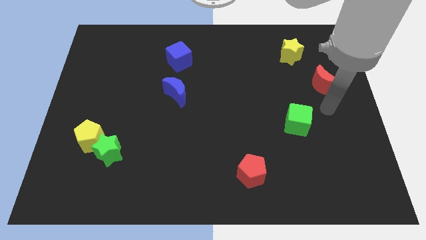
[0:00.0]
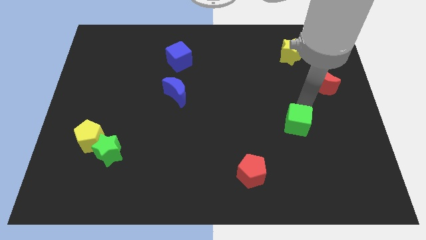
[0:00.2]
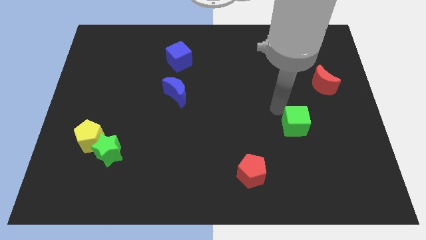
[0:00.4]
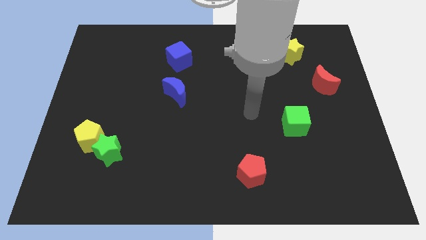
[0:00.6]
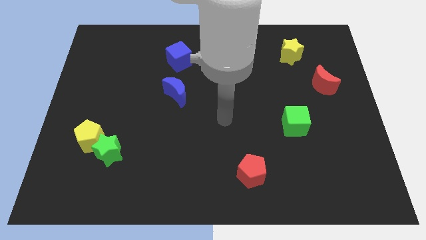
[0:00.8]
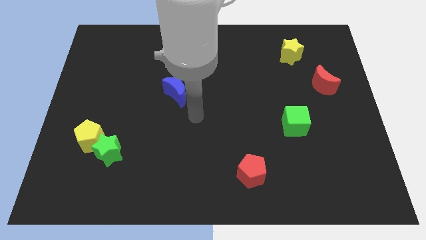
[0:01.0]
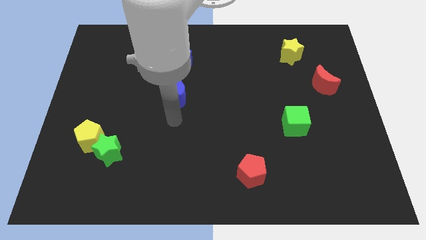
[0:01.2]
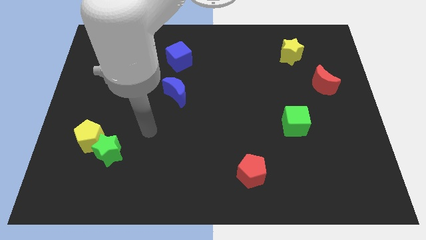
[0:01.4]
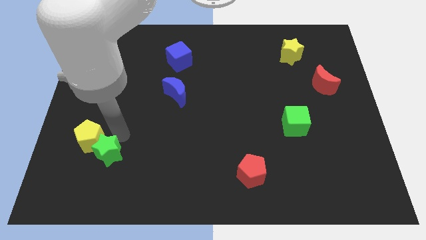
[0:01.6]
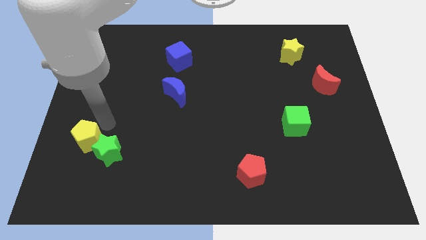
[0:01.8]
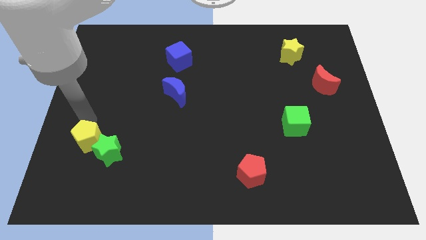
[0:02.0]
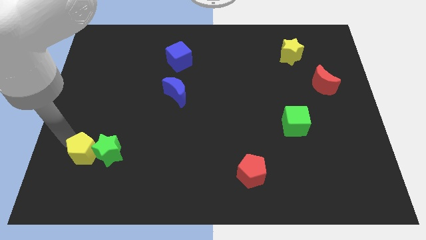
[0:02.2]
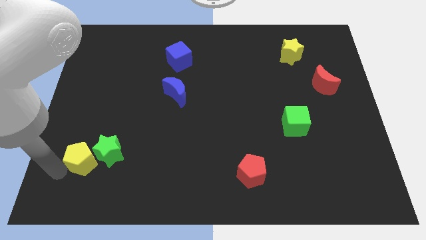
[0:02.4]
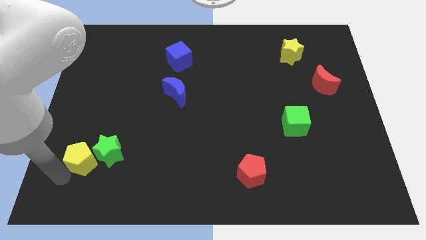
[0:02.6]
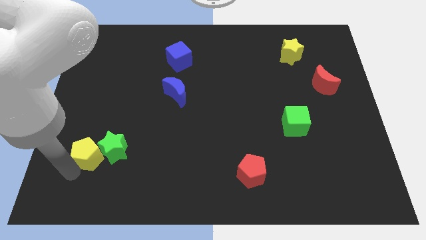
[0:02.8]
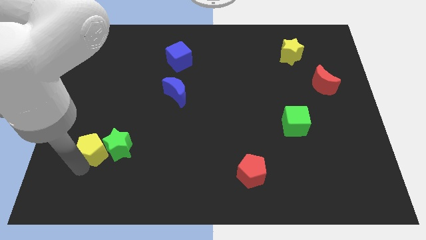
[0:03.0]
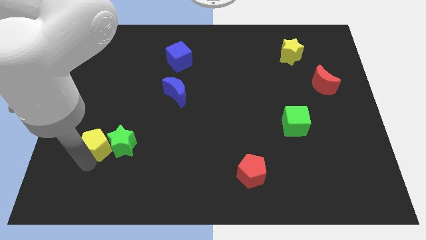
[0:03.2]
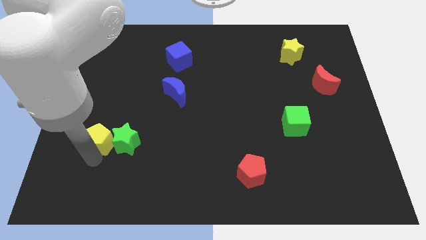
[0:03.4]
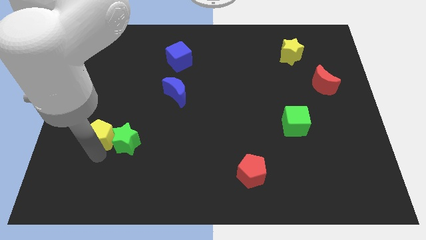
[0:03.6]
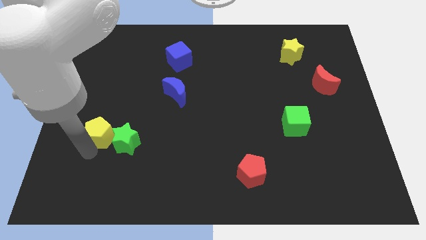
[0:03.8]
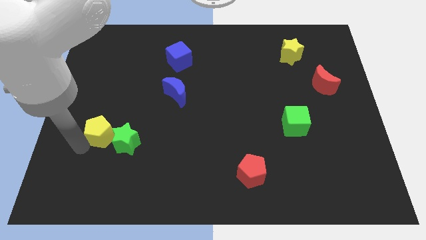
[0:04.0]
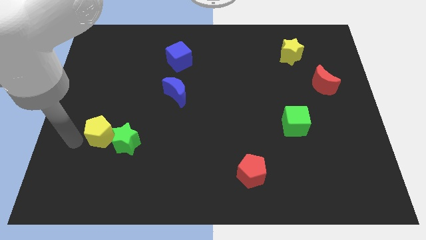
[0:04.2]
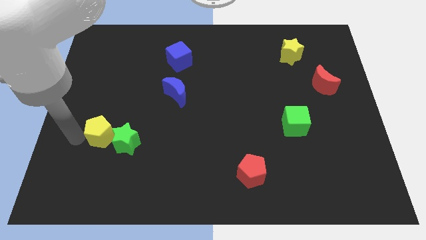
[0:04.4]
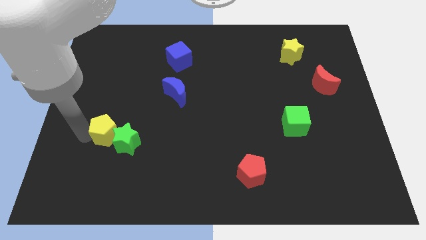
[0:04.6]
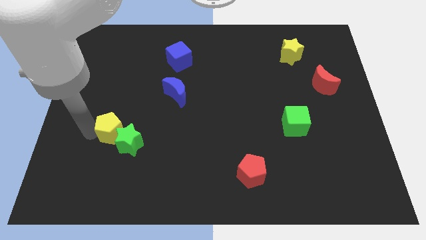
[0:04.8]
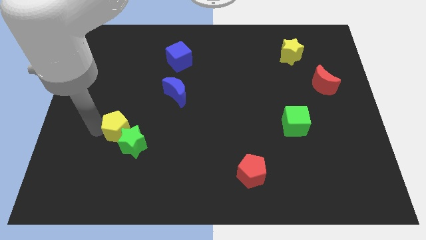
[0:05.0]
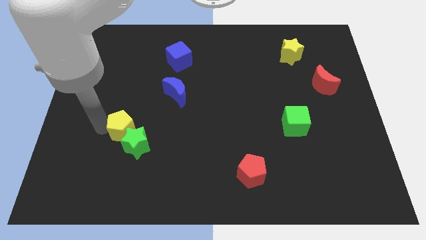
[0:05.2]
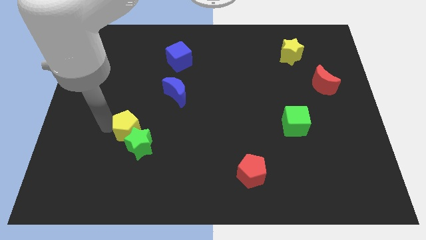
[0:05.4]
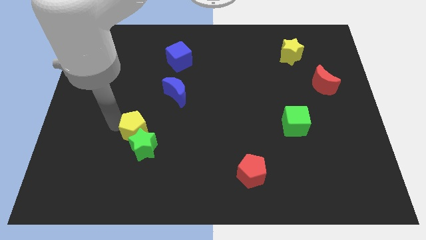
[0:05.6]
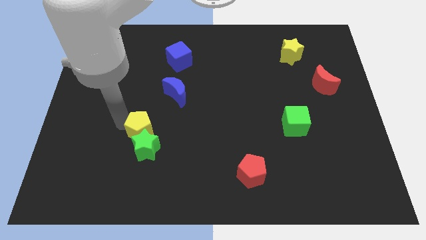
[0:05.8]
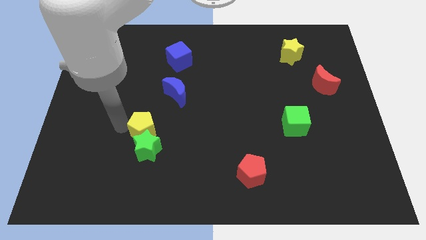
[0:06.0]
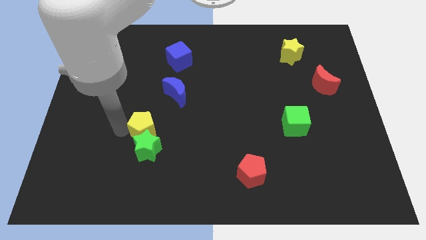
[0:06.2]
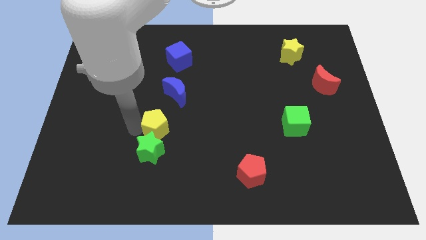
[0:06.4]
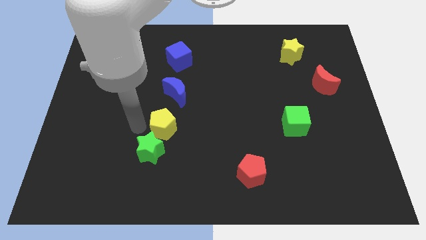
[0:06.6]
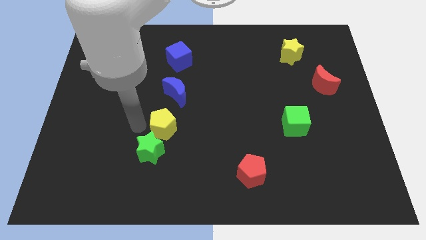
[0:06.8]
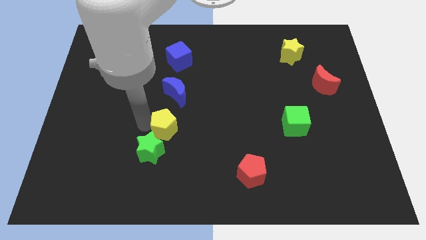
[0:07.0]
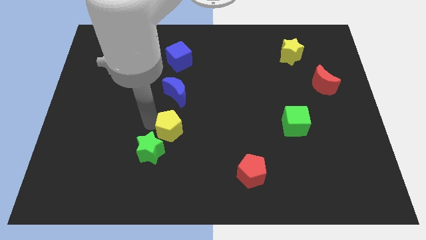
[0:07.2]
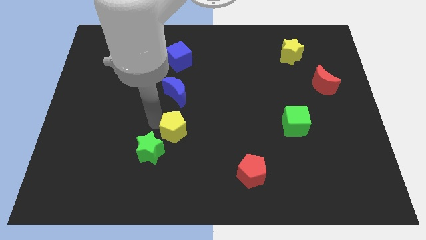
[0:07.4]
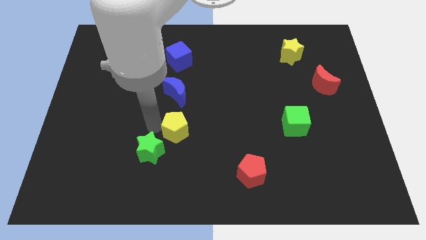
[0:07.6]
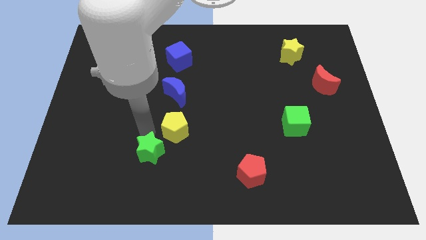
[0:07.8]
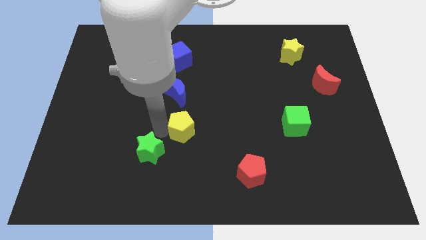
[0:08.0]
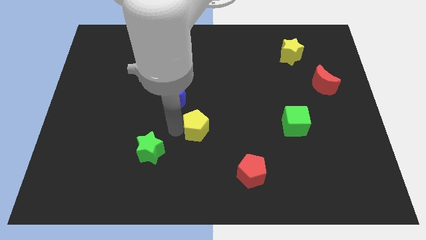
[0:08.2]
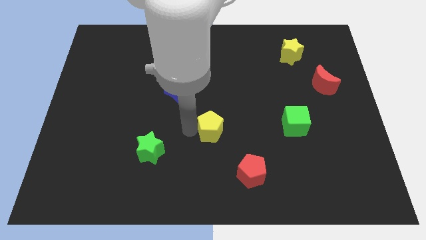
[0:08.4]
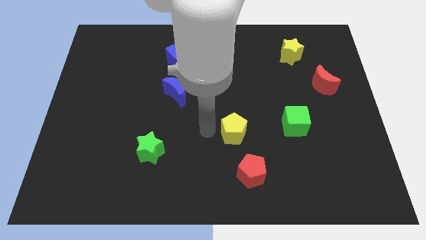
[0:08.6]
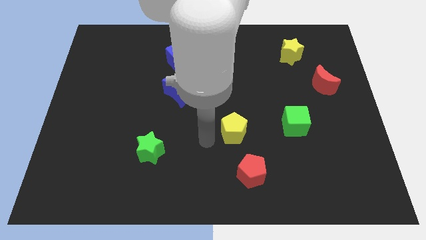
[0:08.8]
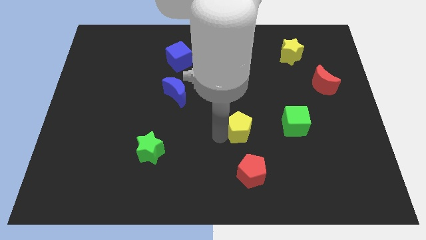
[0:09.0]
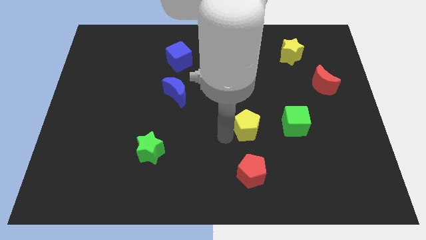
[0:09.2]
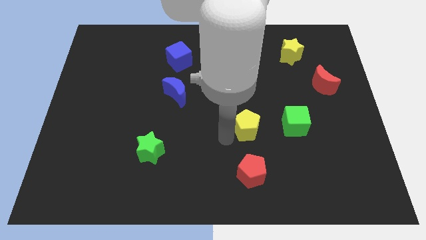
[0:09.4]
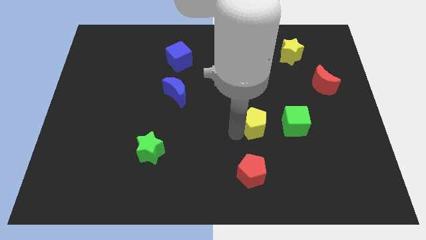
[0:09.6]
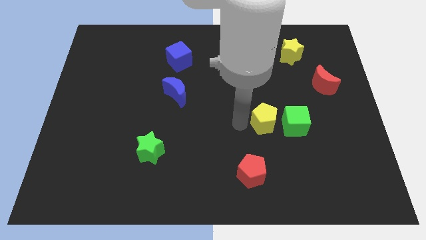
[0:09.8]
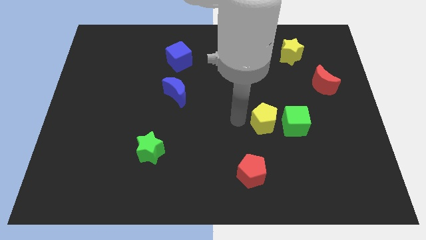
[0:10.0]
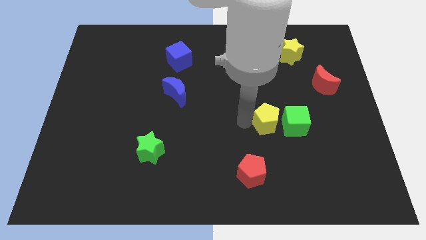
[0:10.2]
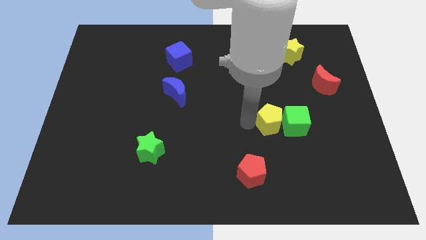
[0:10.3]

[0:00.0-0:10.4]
move the yellow pentagon towards the green cube

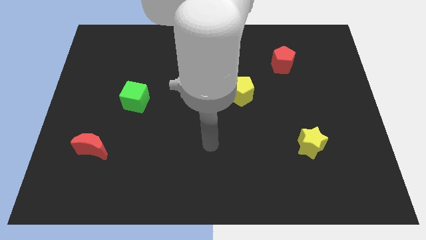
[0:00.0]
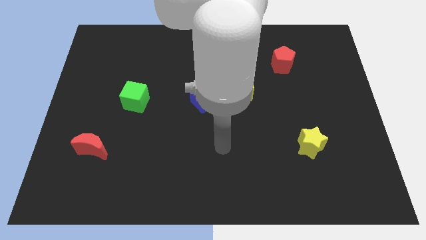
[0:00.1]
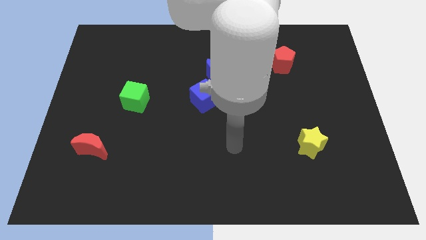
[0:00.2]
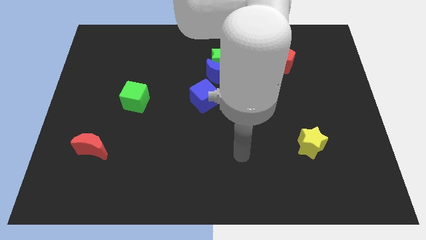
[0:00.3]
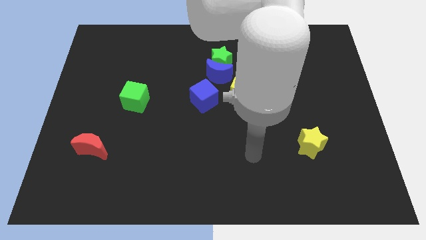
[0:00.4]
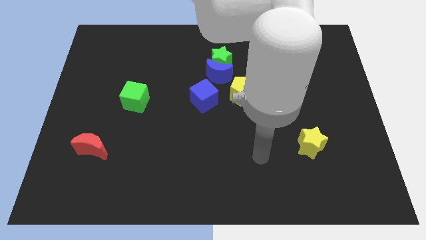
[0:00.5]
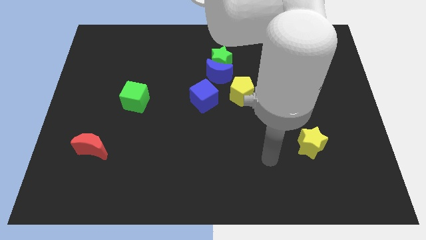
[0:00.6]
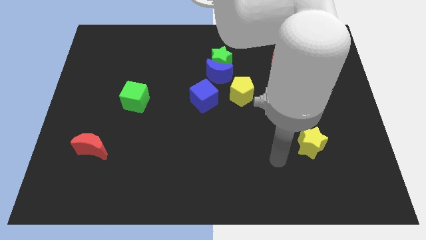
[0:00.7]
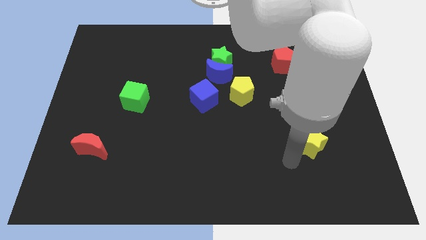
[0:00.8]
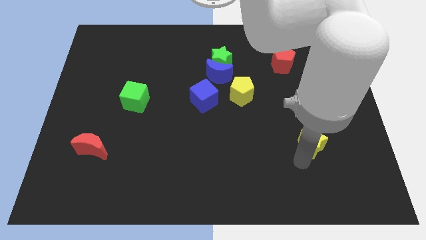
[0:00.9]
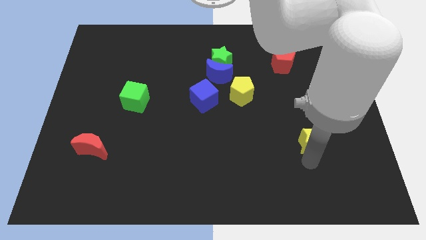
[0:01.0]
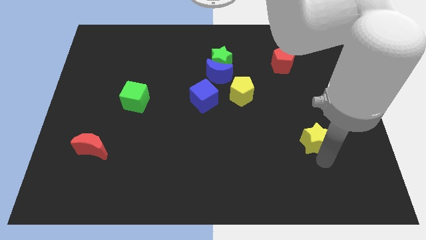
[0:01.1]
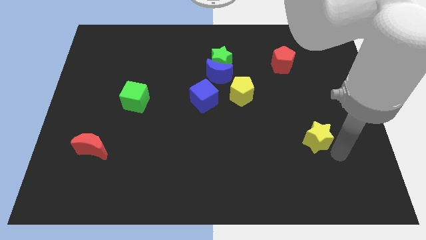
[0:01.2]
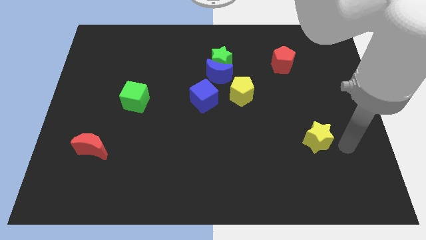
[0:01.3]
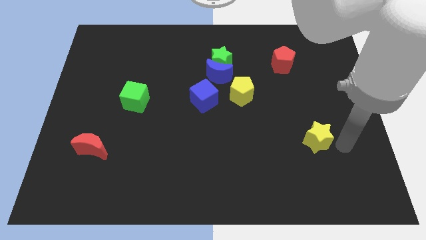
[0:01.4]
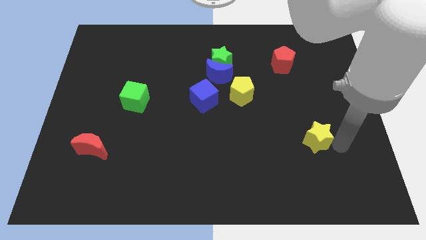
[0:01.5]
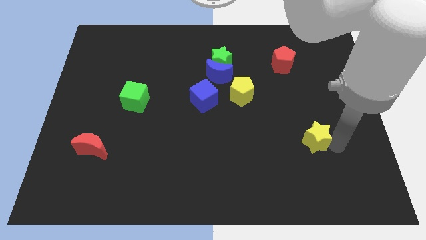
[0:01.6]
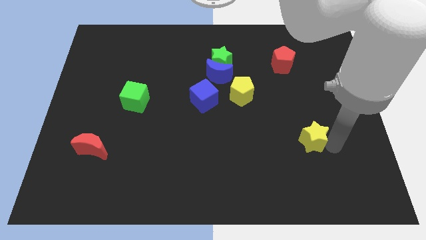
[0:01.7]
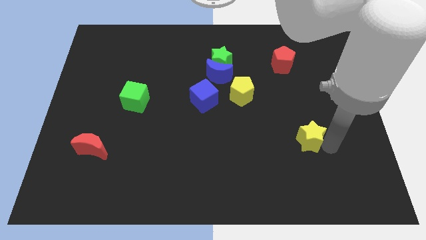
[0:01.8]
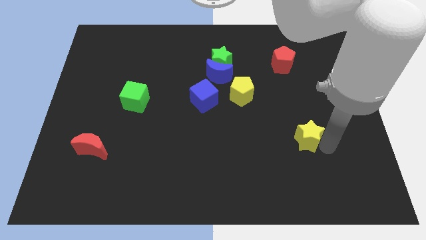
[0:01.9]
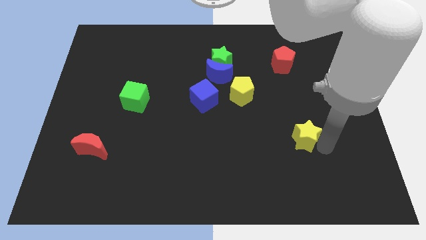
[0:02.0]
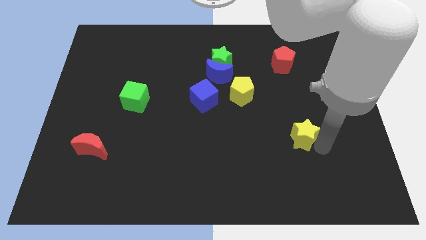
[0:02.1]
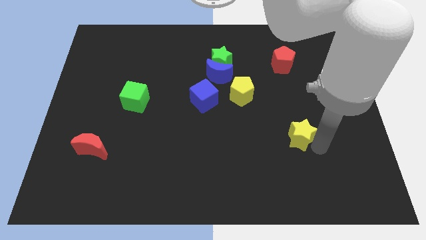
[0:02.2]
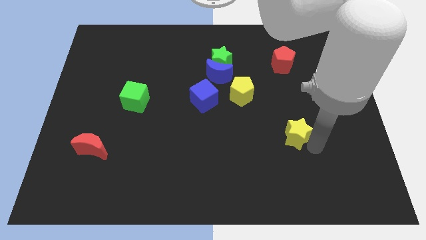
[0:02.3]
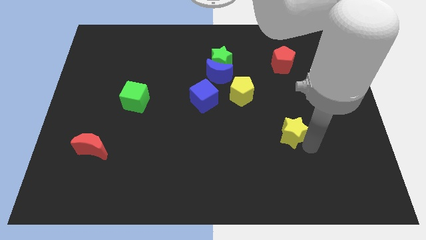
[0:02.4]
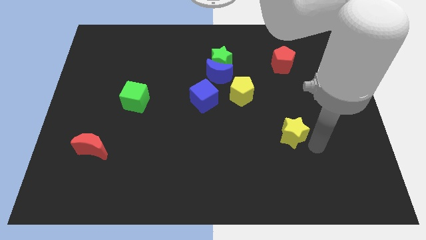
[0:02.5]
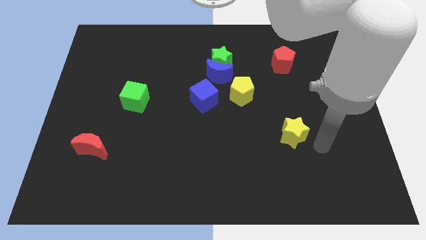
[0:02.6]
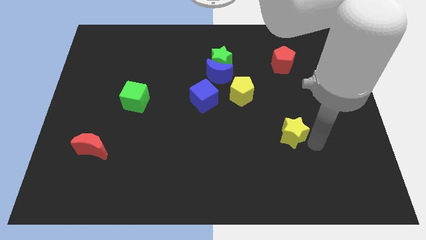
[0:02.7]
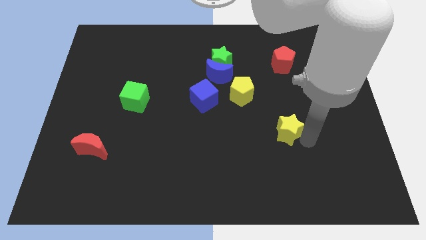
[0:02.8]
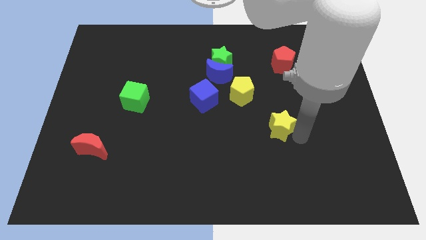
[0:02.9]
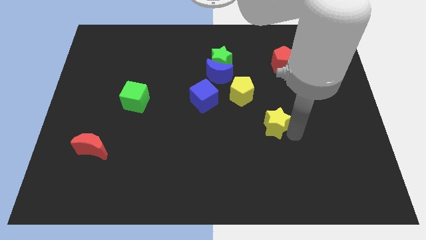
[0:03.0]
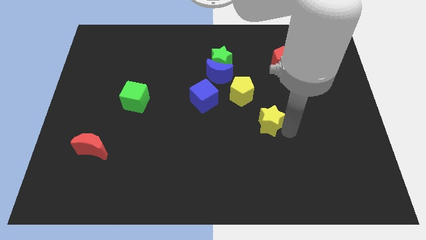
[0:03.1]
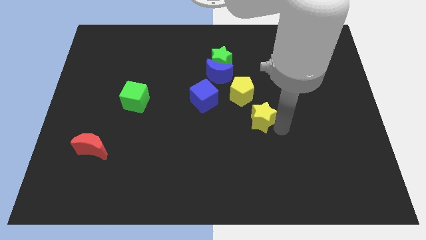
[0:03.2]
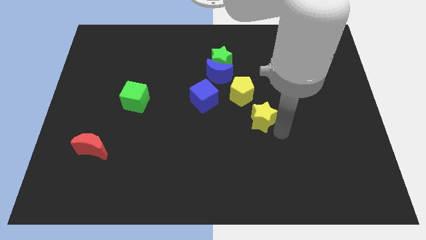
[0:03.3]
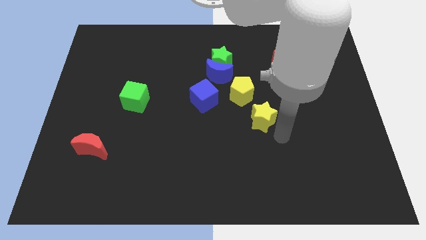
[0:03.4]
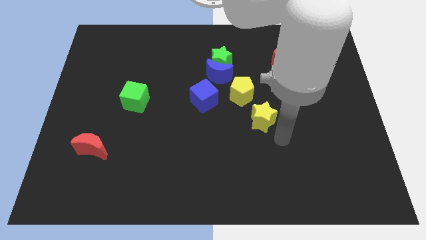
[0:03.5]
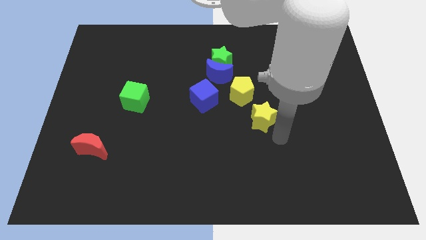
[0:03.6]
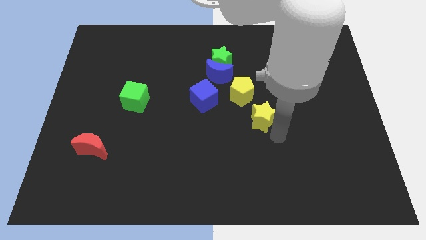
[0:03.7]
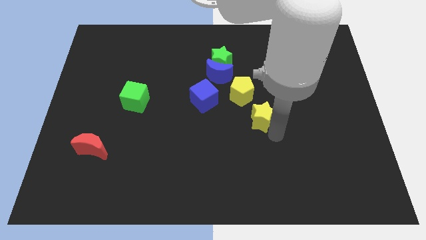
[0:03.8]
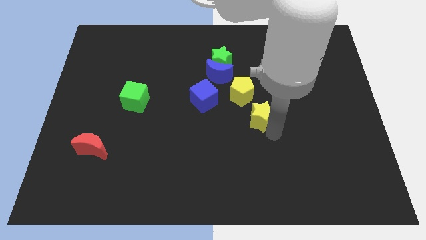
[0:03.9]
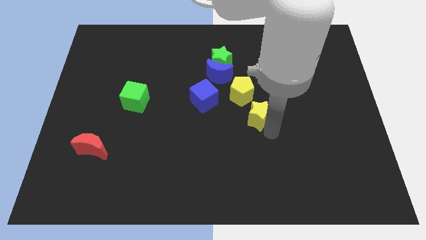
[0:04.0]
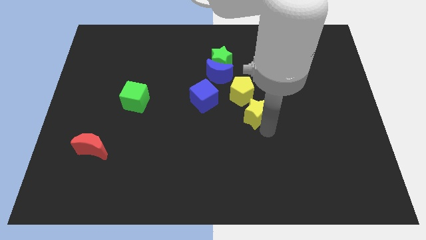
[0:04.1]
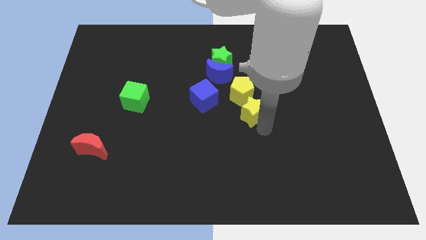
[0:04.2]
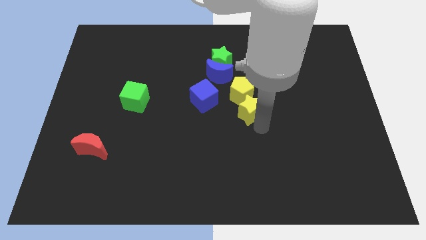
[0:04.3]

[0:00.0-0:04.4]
push the yellow star next to the yellow pentagon
